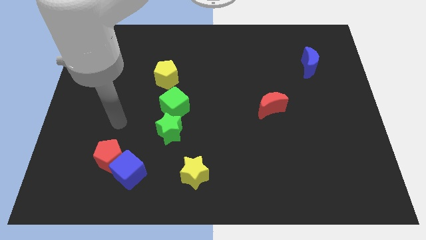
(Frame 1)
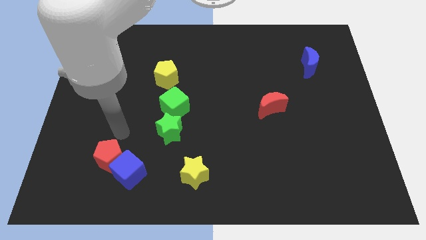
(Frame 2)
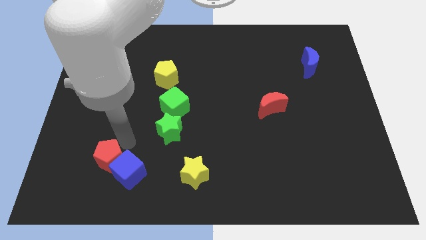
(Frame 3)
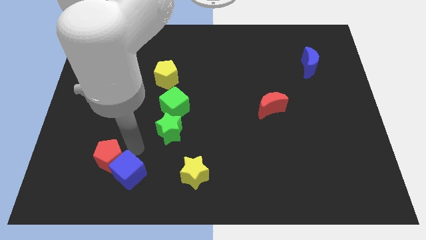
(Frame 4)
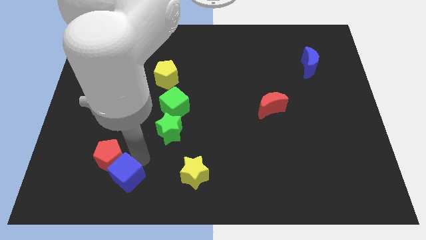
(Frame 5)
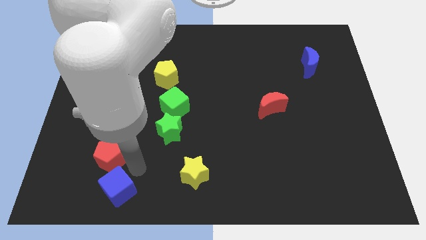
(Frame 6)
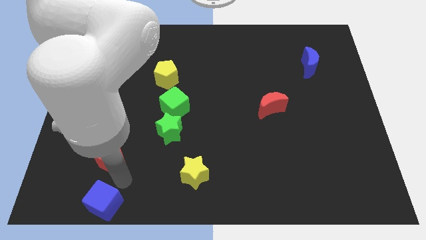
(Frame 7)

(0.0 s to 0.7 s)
separate the red pentagon from the blue cube

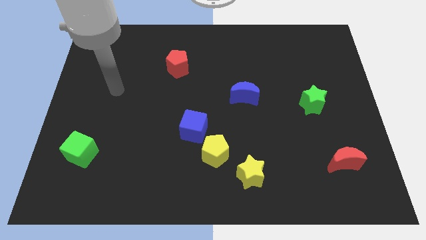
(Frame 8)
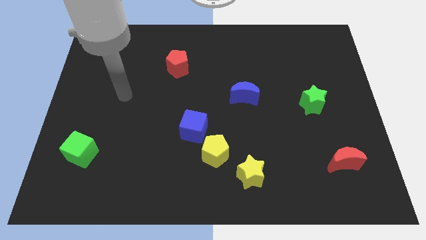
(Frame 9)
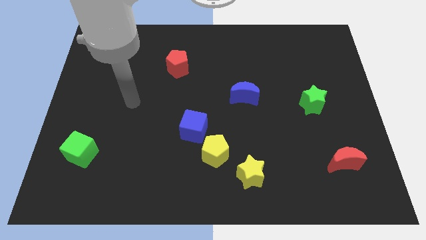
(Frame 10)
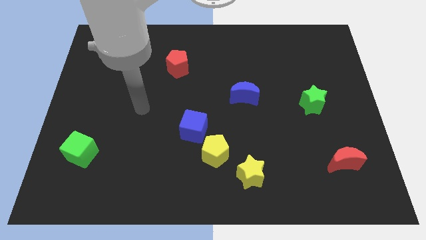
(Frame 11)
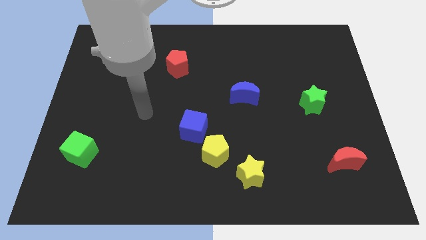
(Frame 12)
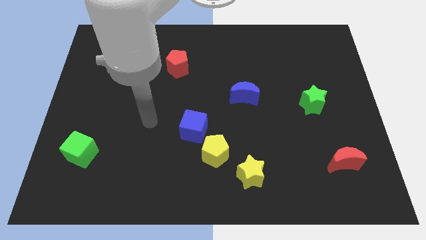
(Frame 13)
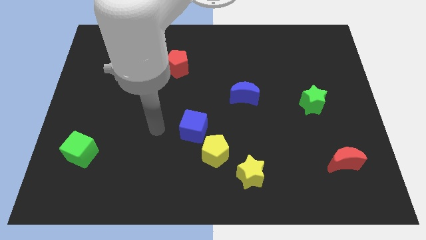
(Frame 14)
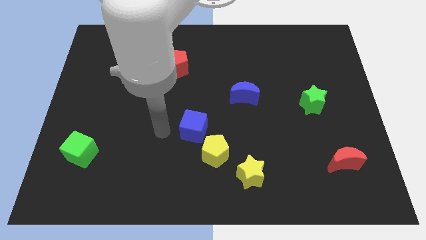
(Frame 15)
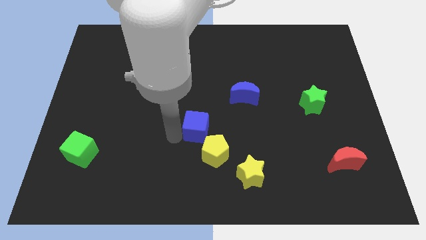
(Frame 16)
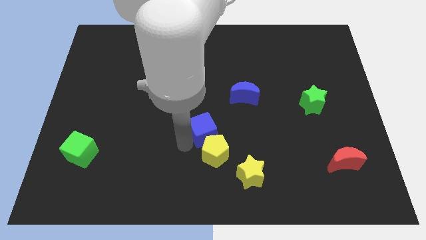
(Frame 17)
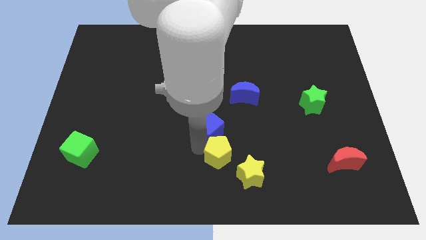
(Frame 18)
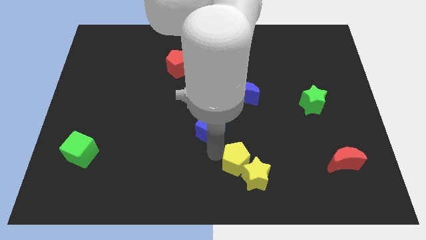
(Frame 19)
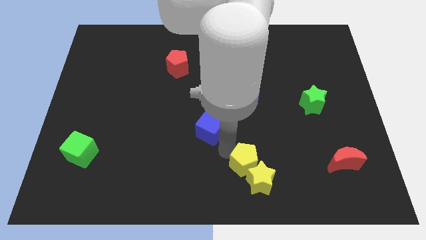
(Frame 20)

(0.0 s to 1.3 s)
move the blue cube away from the yellow pentagon

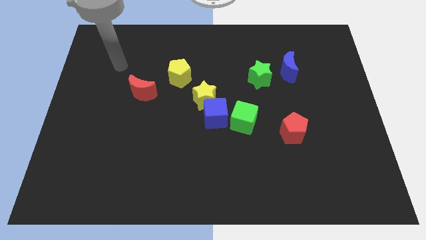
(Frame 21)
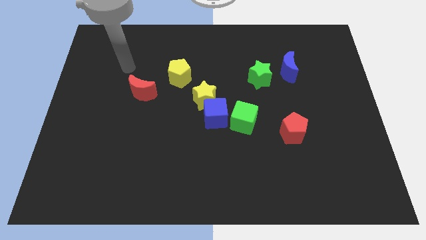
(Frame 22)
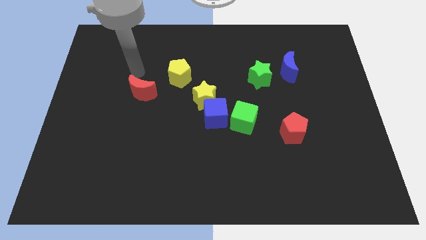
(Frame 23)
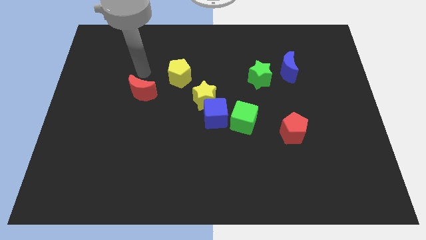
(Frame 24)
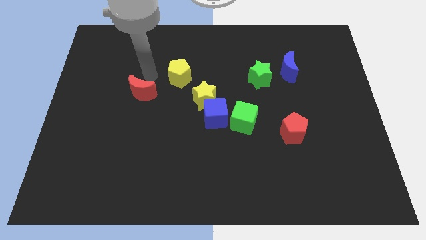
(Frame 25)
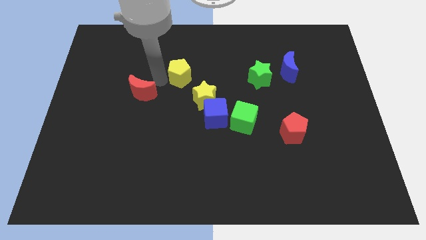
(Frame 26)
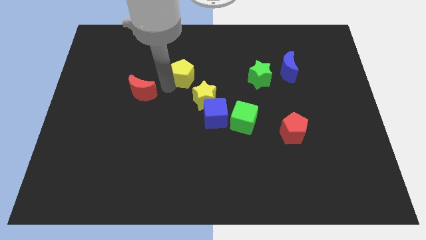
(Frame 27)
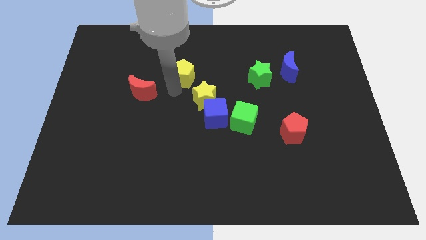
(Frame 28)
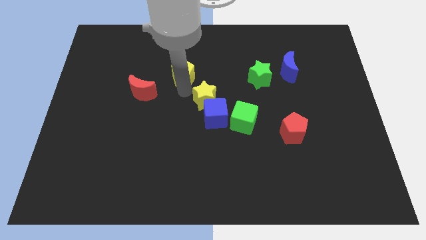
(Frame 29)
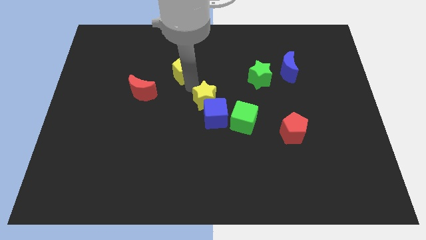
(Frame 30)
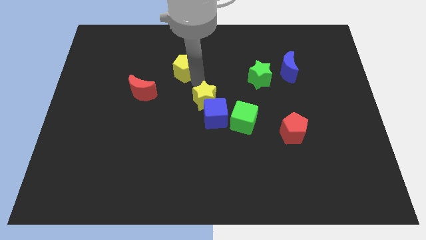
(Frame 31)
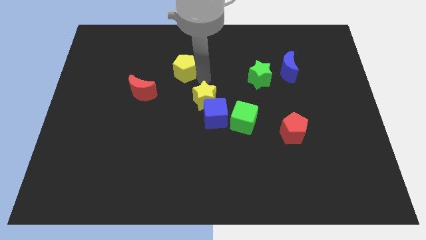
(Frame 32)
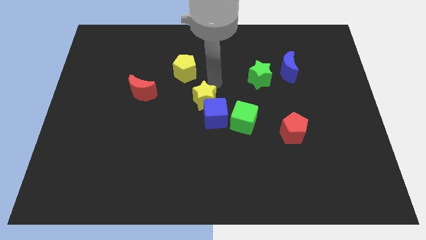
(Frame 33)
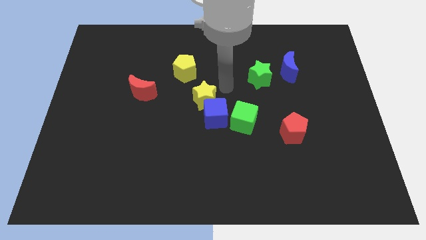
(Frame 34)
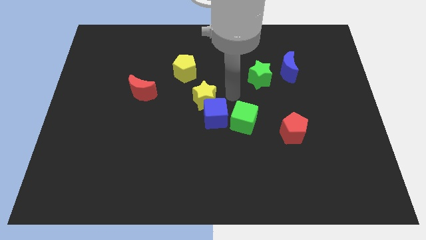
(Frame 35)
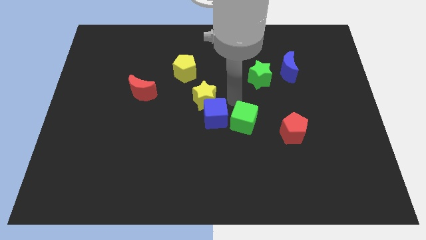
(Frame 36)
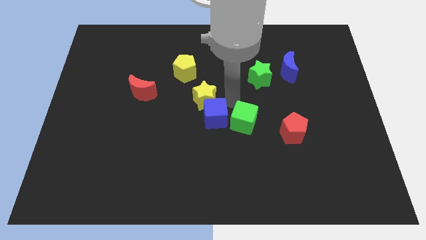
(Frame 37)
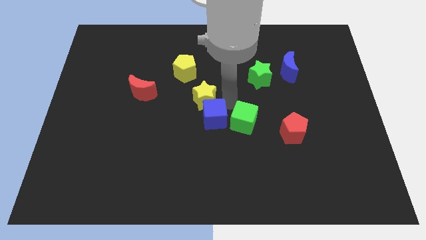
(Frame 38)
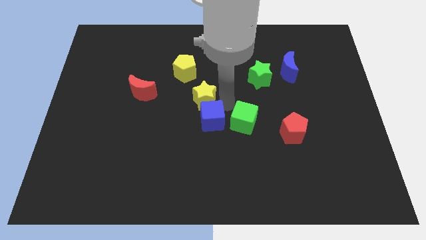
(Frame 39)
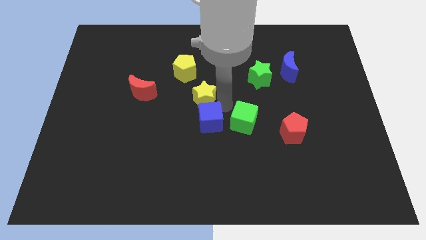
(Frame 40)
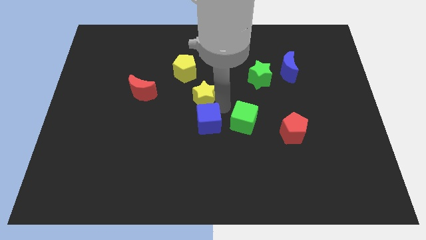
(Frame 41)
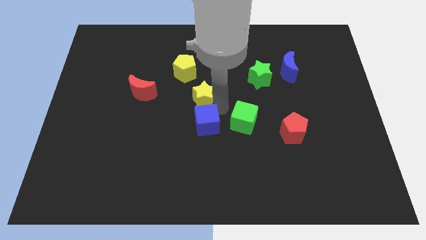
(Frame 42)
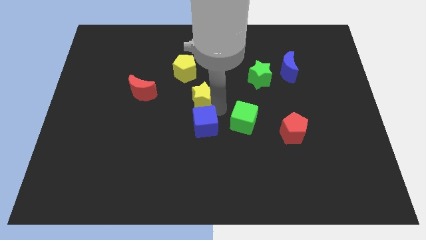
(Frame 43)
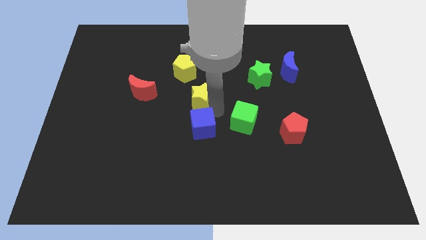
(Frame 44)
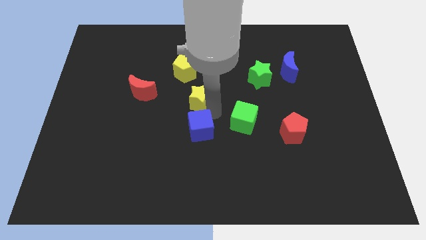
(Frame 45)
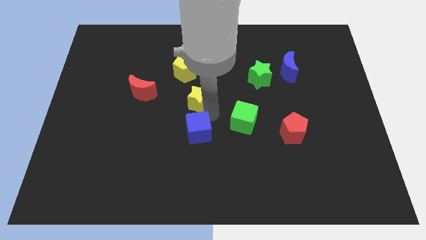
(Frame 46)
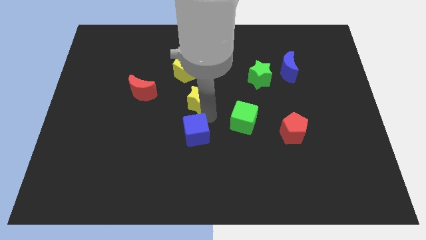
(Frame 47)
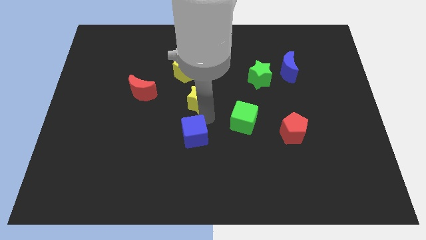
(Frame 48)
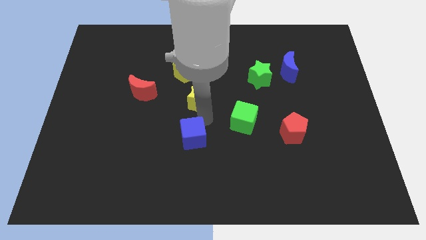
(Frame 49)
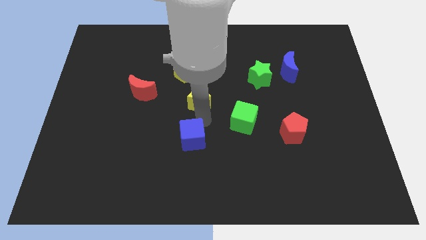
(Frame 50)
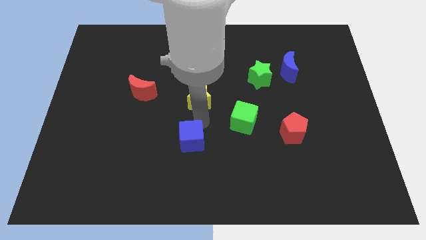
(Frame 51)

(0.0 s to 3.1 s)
pull the blue cube apart from the yellow star and green cube

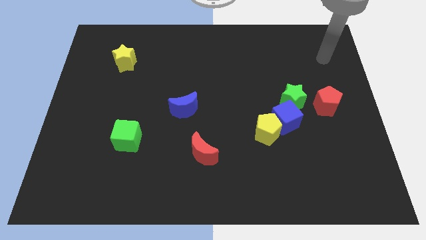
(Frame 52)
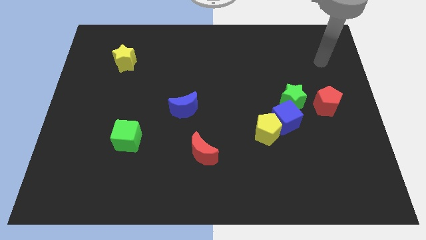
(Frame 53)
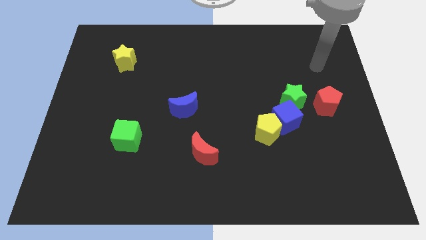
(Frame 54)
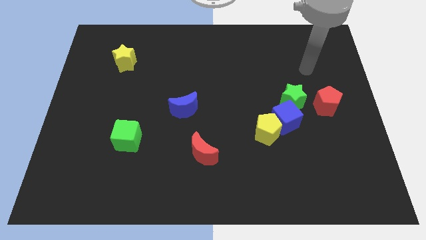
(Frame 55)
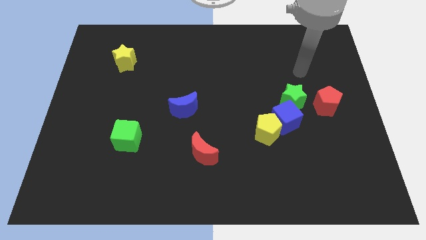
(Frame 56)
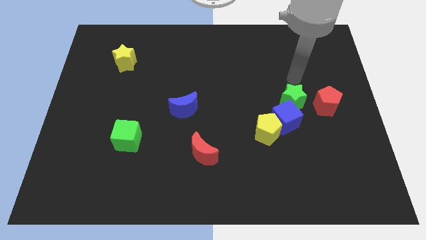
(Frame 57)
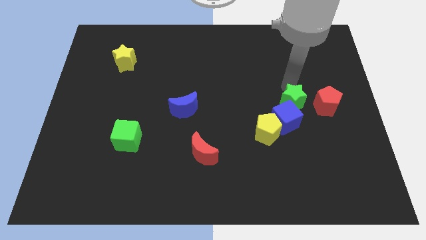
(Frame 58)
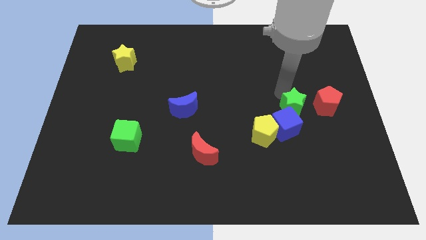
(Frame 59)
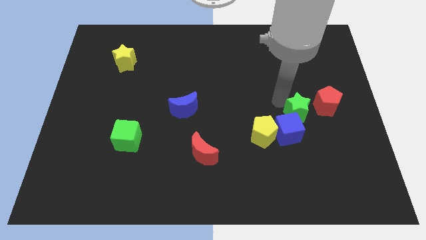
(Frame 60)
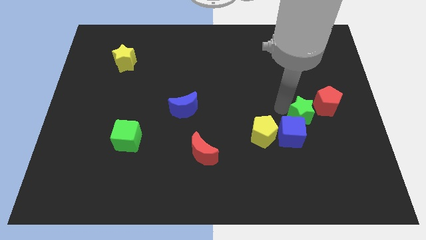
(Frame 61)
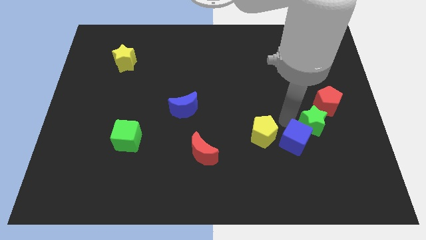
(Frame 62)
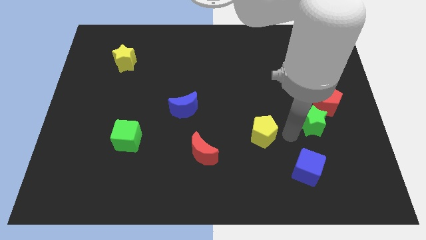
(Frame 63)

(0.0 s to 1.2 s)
separate the yellow pentagon from the blue cube

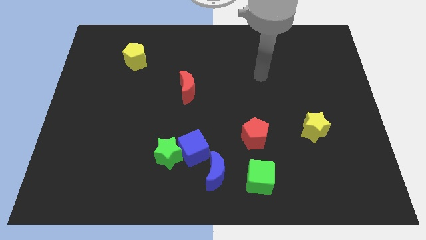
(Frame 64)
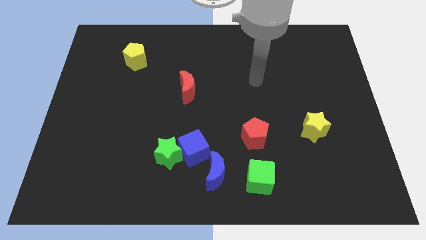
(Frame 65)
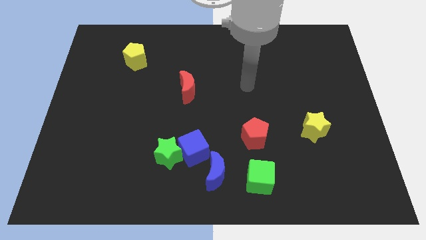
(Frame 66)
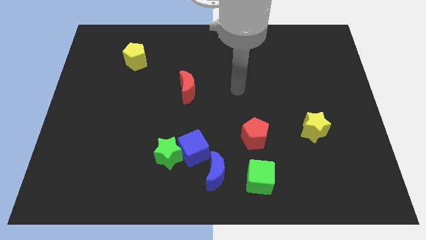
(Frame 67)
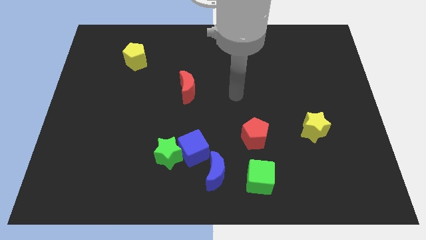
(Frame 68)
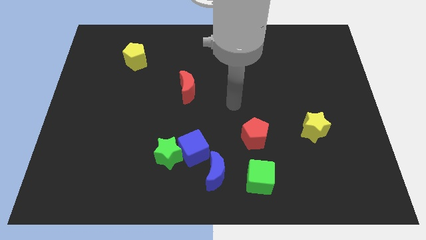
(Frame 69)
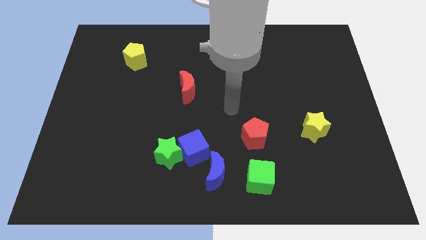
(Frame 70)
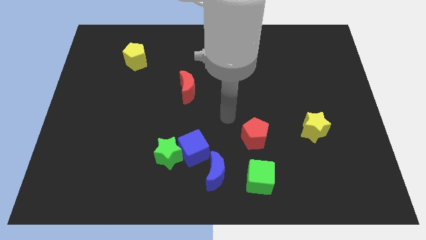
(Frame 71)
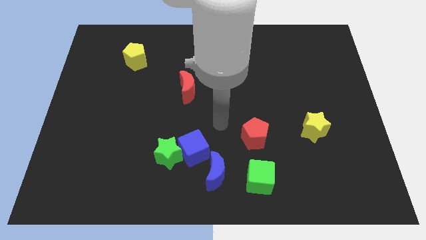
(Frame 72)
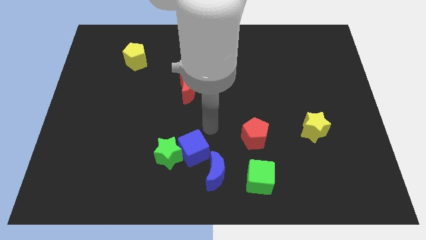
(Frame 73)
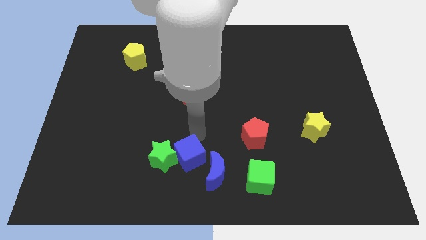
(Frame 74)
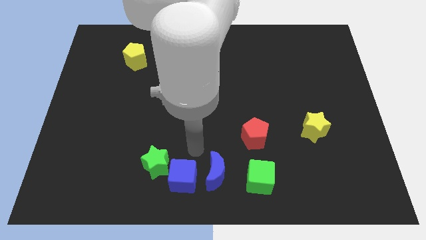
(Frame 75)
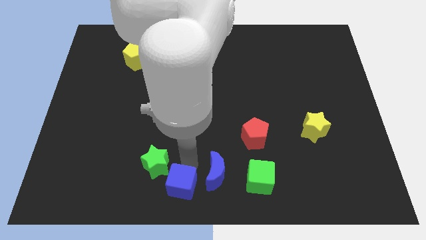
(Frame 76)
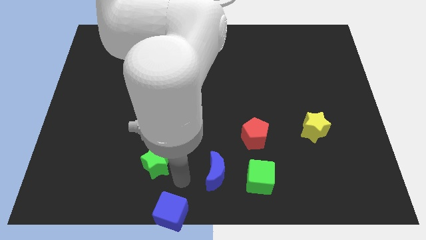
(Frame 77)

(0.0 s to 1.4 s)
separate the green star from the blue cube

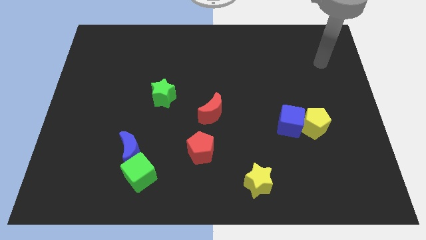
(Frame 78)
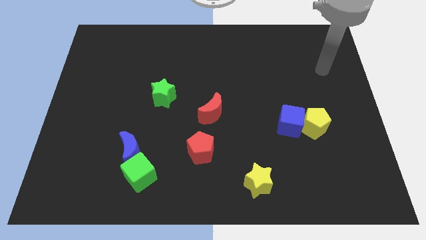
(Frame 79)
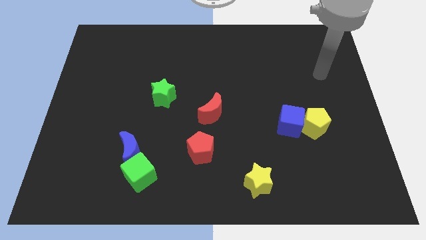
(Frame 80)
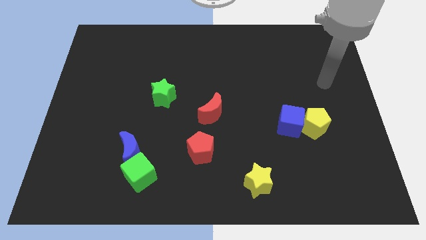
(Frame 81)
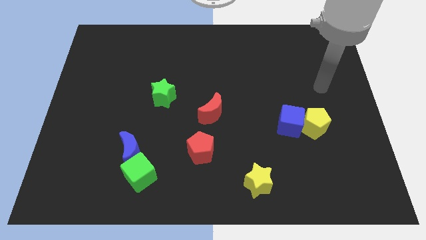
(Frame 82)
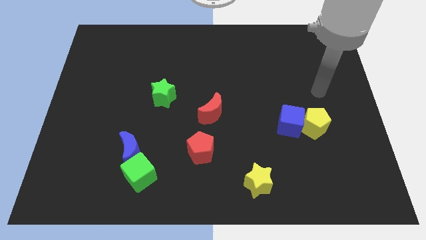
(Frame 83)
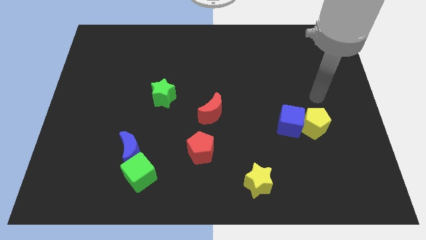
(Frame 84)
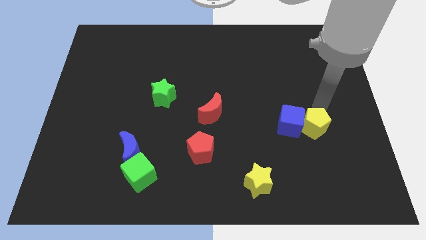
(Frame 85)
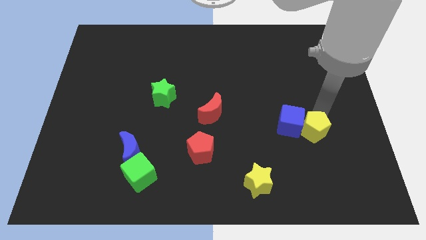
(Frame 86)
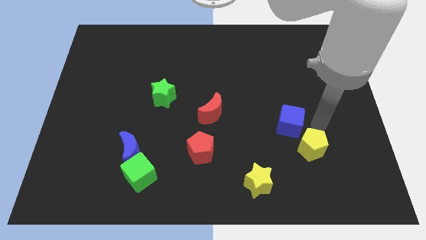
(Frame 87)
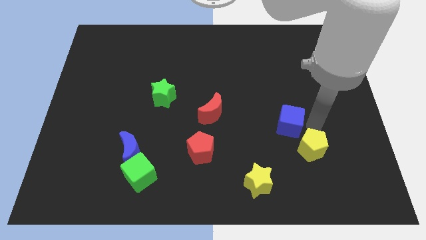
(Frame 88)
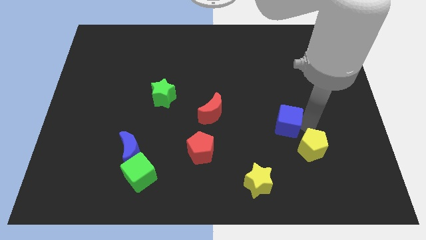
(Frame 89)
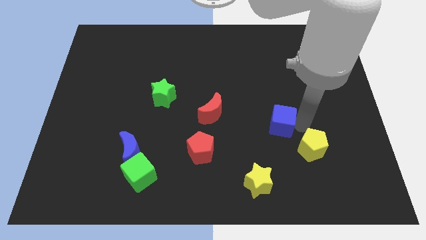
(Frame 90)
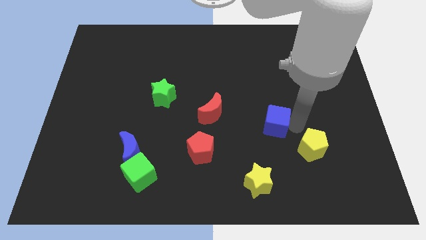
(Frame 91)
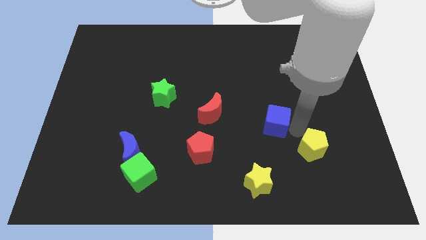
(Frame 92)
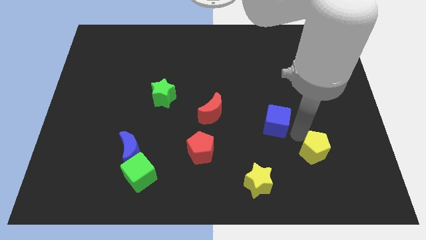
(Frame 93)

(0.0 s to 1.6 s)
pull the blue cube apart from the yellow pentagon
